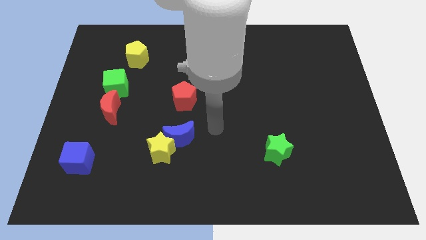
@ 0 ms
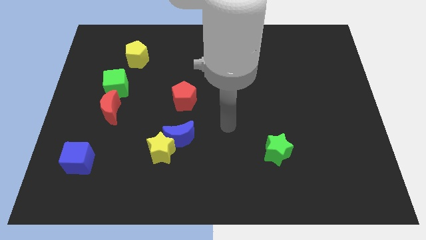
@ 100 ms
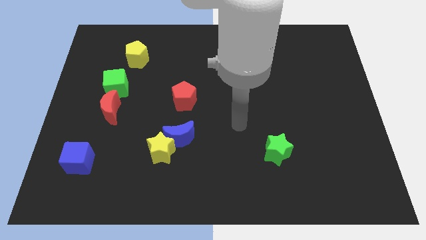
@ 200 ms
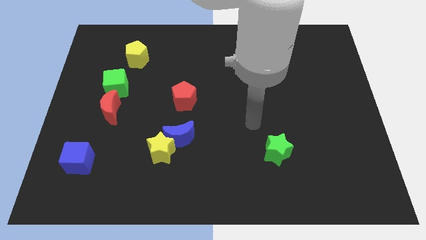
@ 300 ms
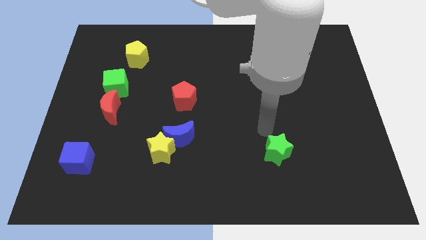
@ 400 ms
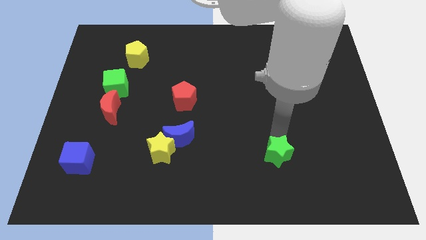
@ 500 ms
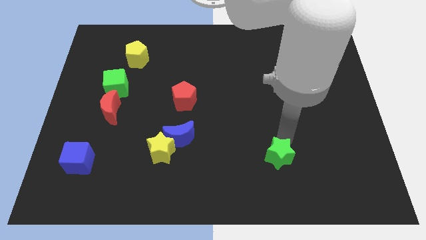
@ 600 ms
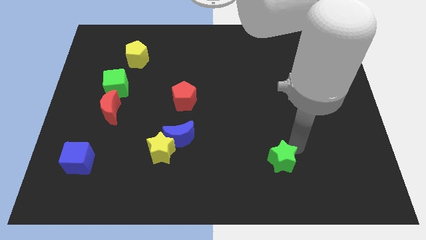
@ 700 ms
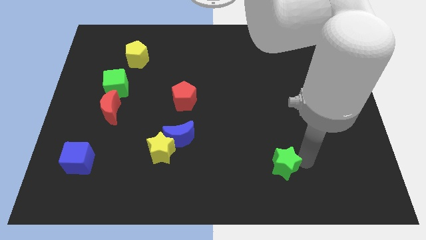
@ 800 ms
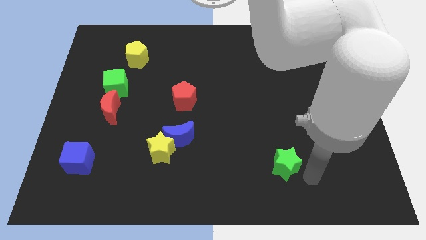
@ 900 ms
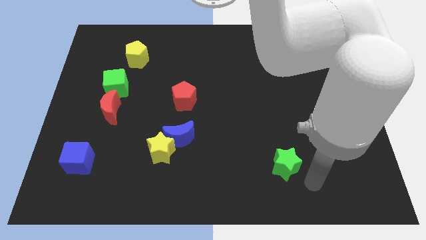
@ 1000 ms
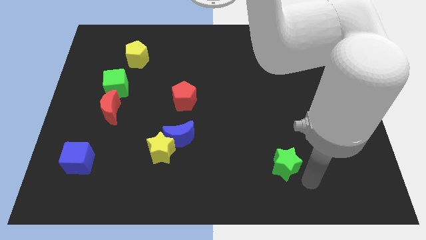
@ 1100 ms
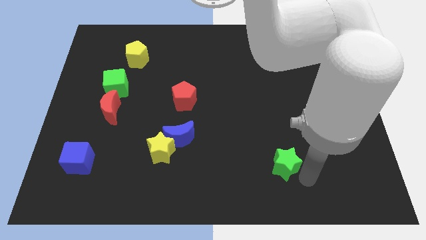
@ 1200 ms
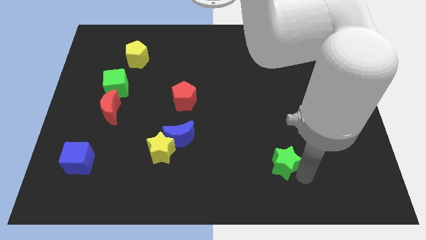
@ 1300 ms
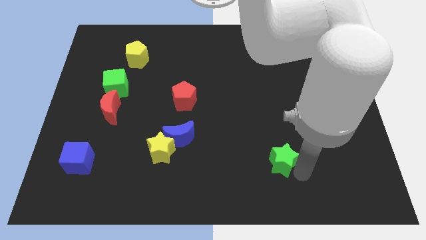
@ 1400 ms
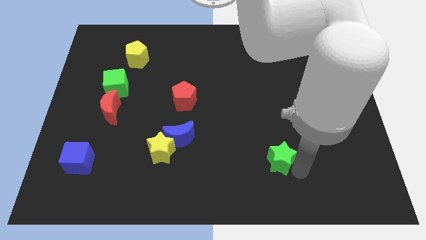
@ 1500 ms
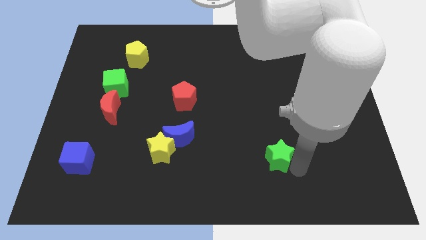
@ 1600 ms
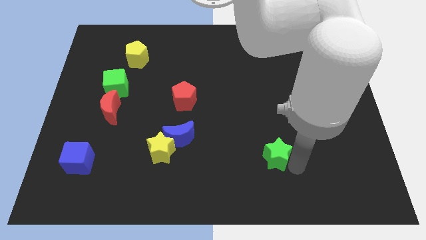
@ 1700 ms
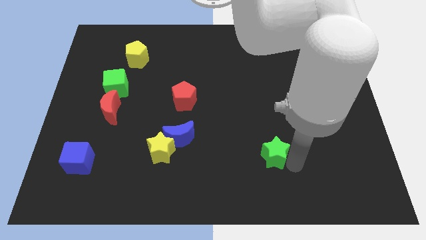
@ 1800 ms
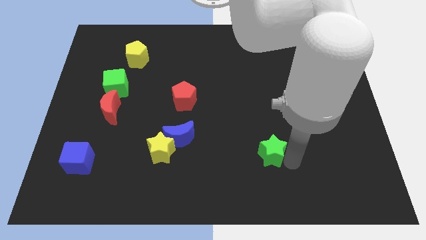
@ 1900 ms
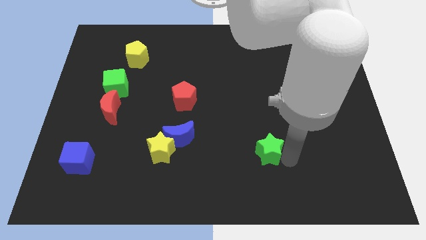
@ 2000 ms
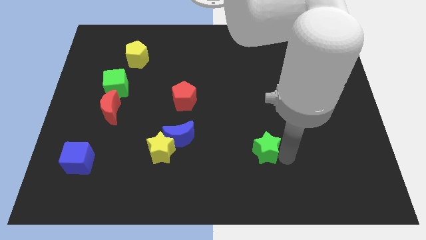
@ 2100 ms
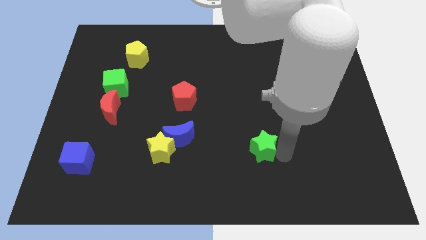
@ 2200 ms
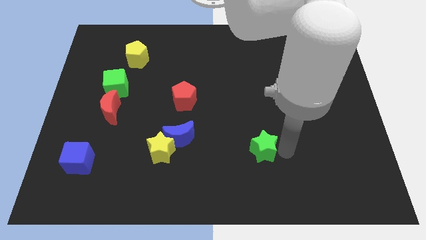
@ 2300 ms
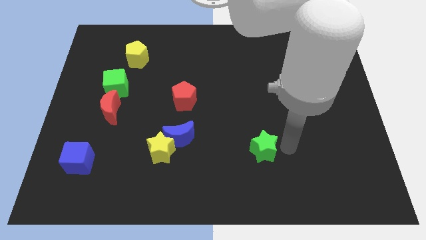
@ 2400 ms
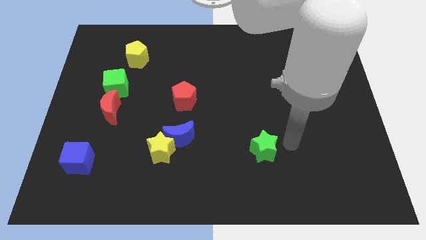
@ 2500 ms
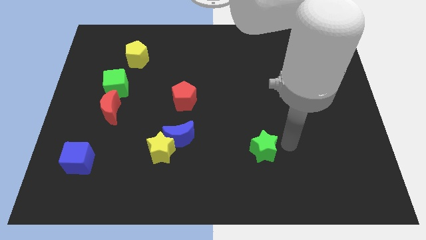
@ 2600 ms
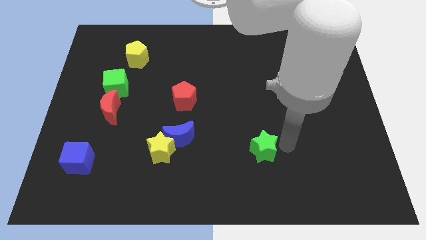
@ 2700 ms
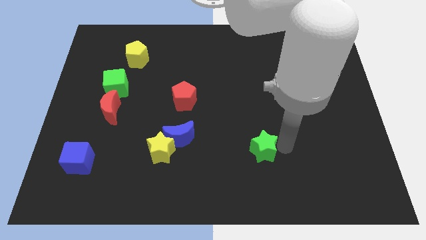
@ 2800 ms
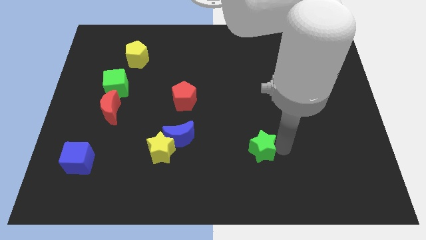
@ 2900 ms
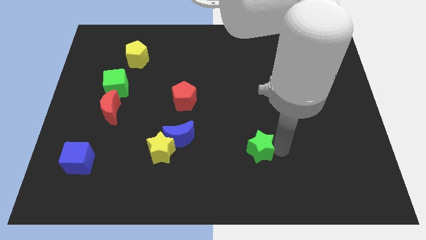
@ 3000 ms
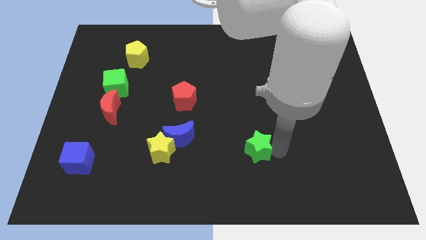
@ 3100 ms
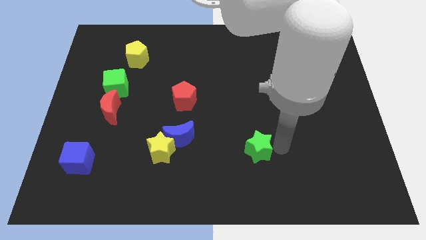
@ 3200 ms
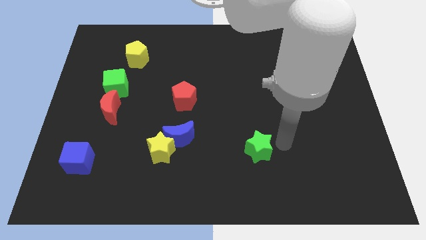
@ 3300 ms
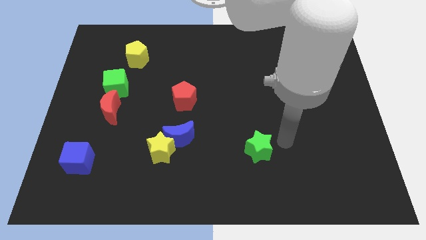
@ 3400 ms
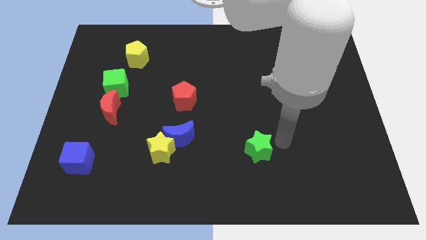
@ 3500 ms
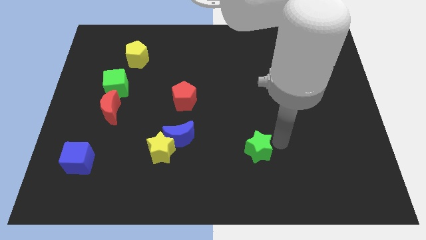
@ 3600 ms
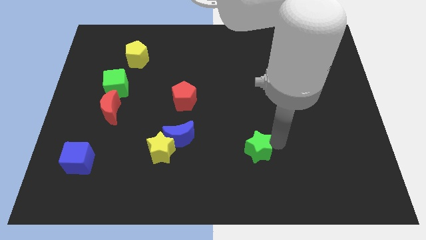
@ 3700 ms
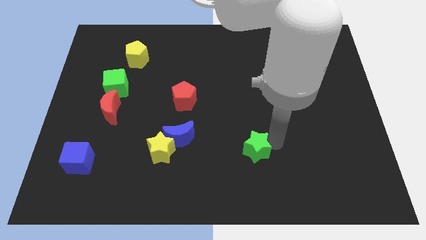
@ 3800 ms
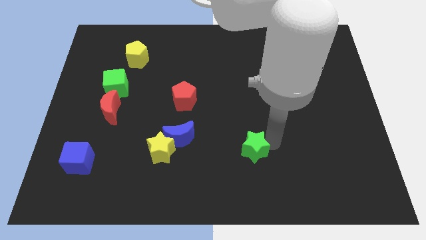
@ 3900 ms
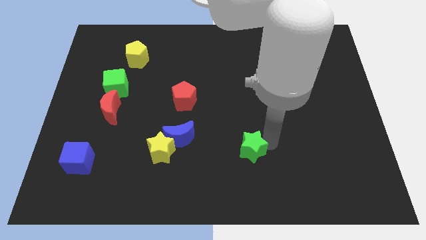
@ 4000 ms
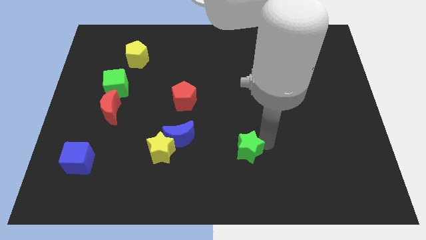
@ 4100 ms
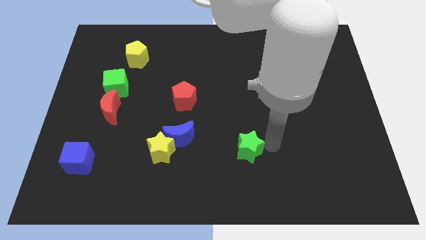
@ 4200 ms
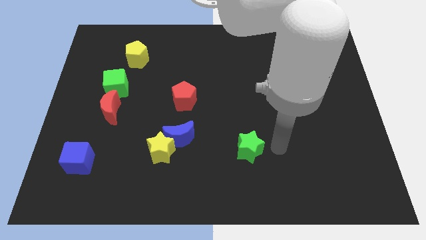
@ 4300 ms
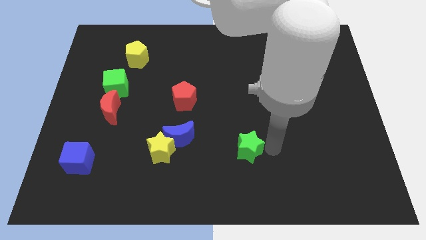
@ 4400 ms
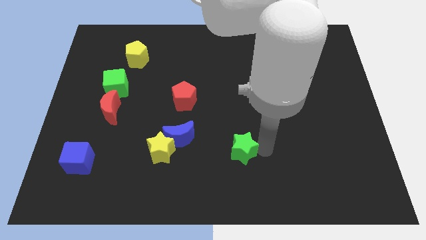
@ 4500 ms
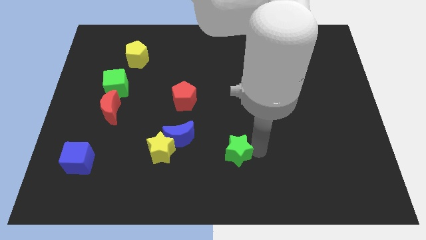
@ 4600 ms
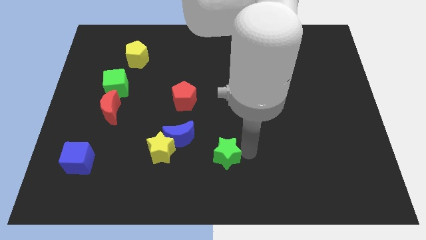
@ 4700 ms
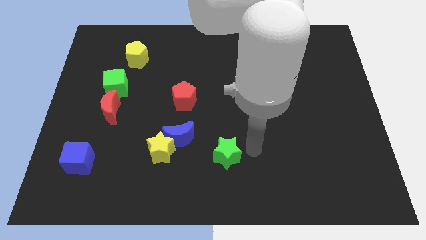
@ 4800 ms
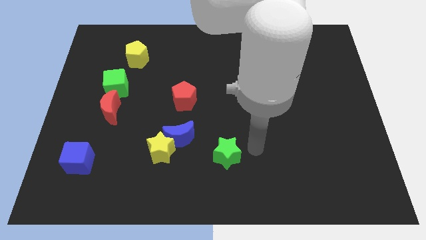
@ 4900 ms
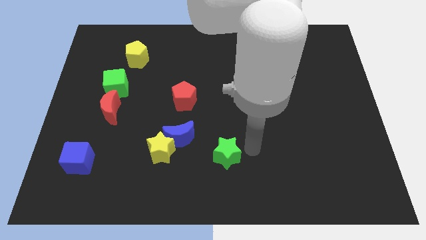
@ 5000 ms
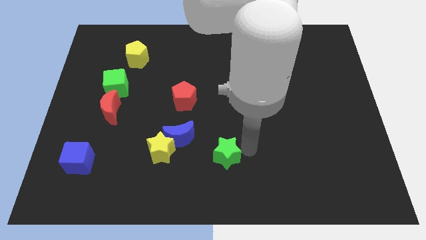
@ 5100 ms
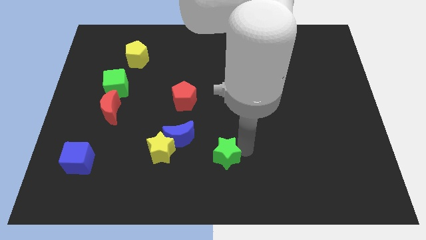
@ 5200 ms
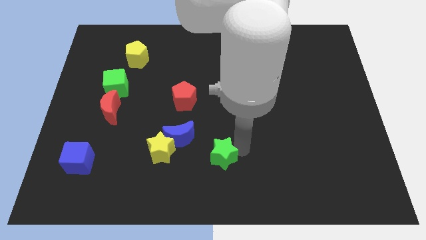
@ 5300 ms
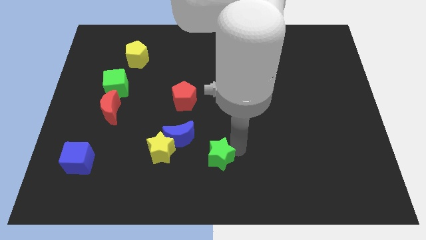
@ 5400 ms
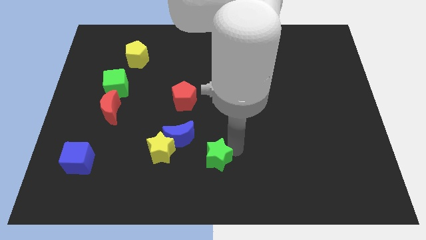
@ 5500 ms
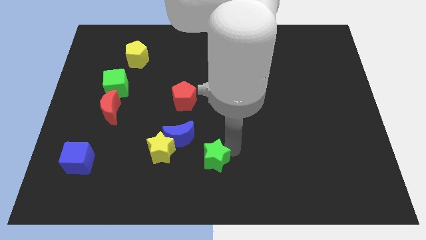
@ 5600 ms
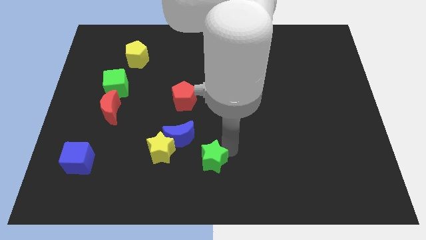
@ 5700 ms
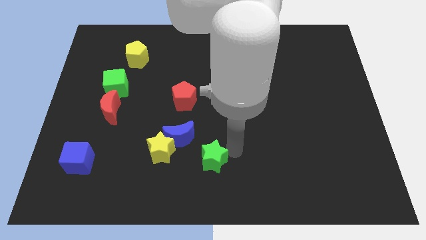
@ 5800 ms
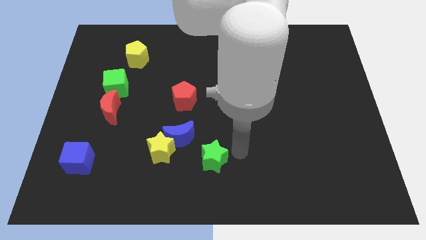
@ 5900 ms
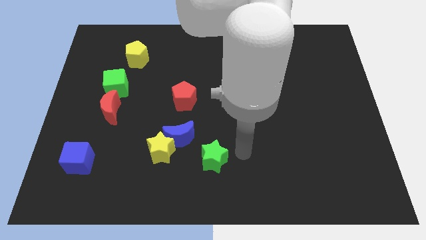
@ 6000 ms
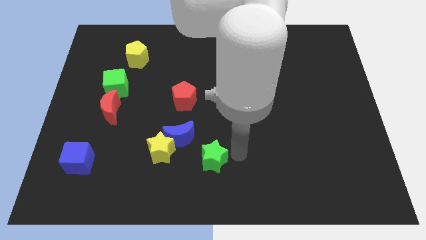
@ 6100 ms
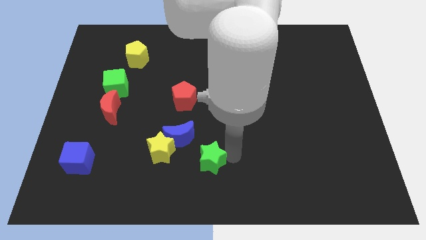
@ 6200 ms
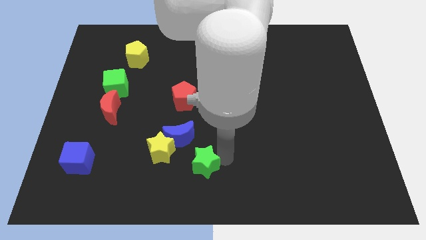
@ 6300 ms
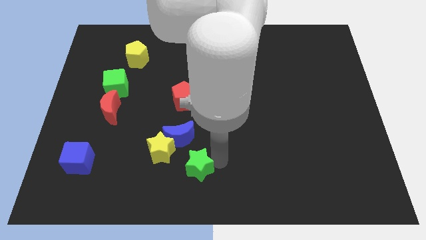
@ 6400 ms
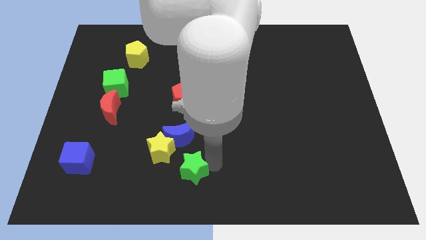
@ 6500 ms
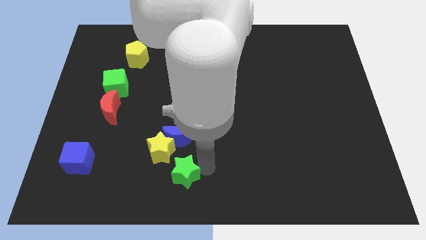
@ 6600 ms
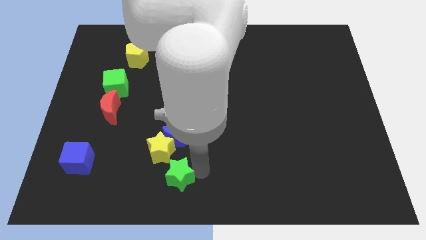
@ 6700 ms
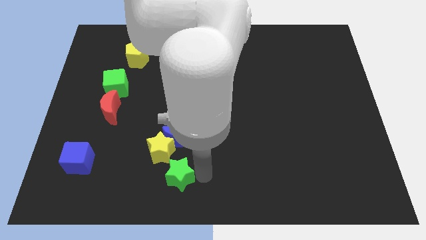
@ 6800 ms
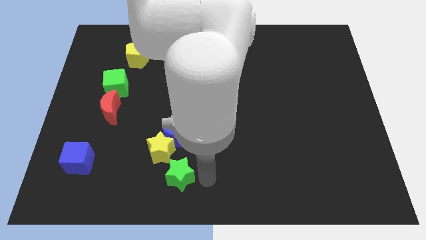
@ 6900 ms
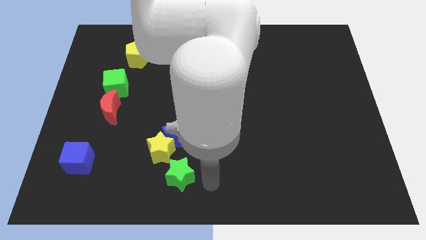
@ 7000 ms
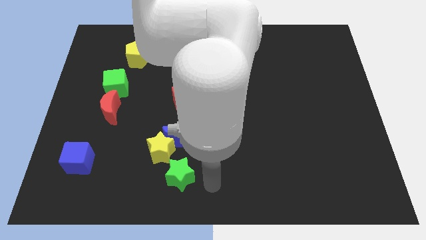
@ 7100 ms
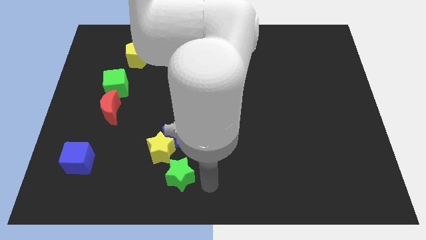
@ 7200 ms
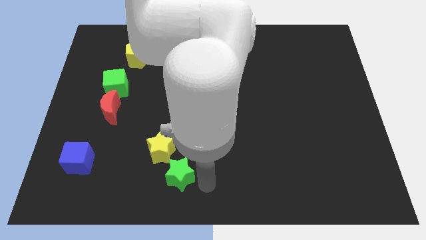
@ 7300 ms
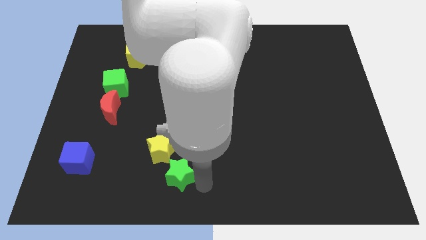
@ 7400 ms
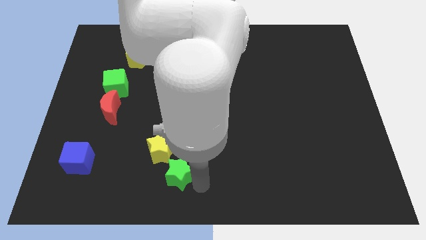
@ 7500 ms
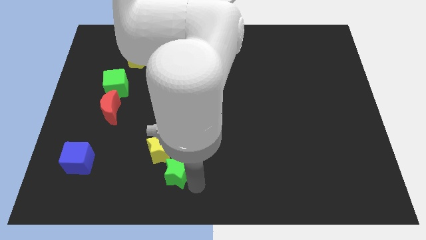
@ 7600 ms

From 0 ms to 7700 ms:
move the green star left

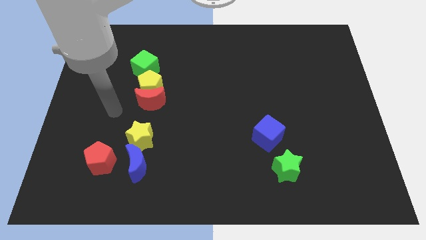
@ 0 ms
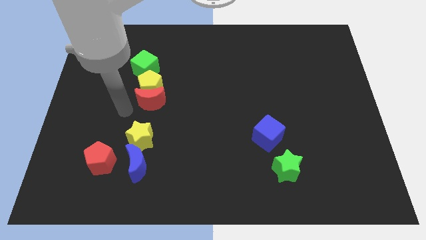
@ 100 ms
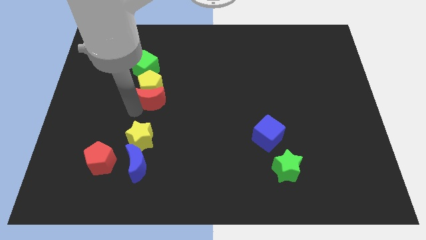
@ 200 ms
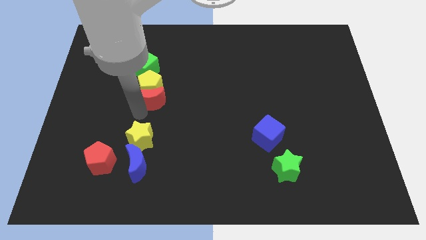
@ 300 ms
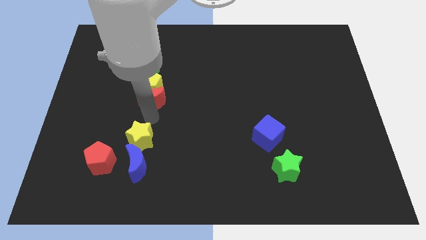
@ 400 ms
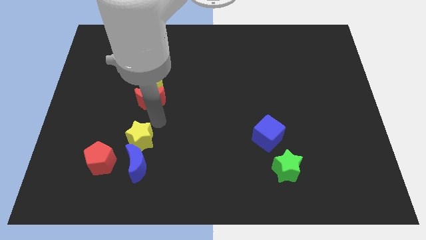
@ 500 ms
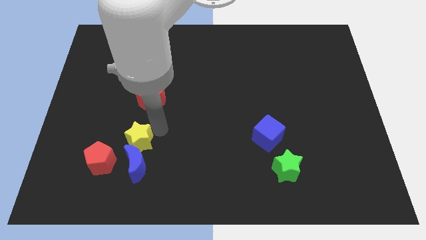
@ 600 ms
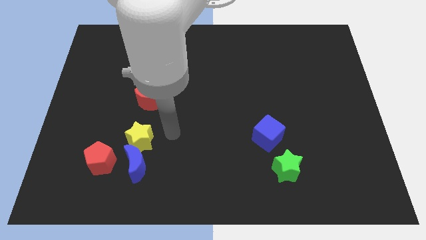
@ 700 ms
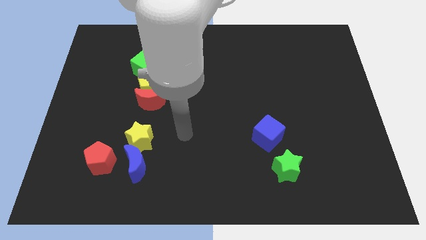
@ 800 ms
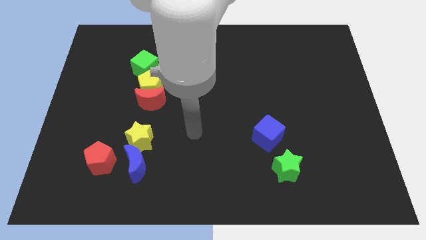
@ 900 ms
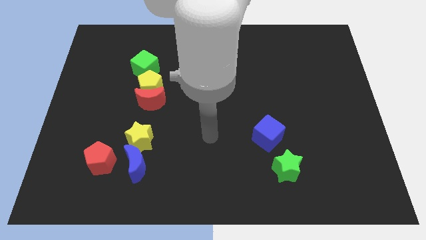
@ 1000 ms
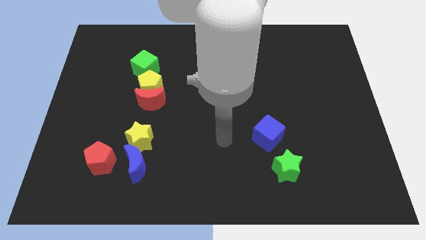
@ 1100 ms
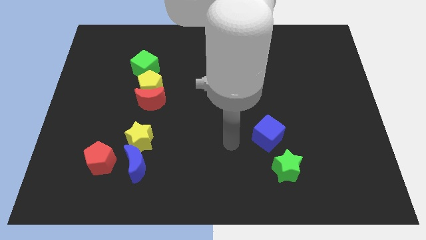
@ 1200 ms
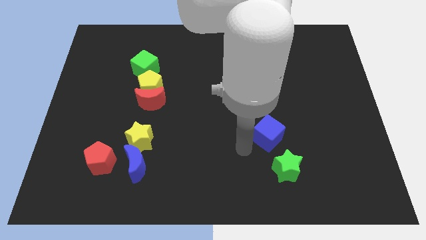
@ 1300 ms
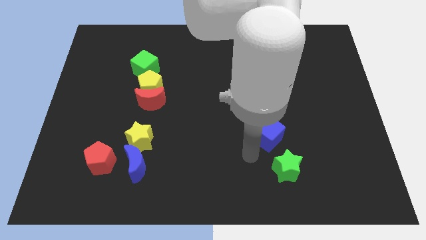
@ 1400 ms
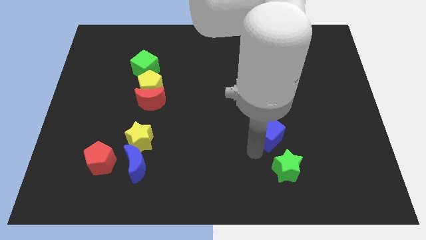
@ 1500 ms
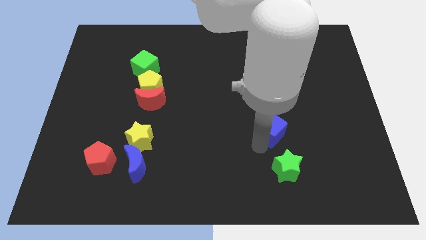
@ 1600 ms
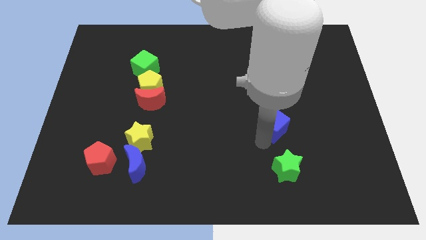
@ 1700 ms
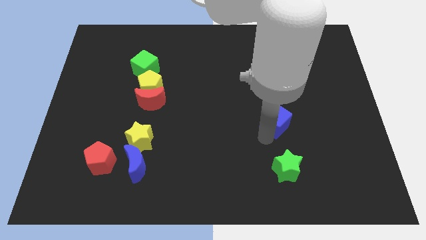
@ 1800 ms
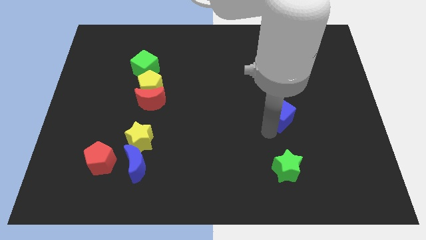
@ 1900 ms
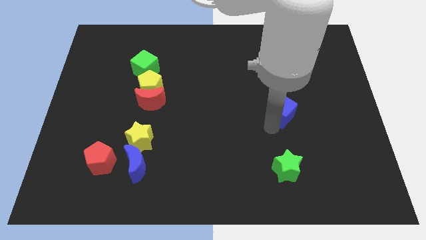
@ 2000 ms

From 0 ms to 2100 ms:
slide the blue cube diagonally up and right a bit
